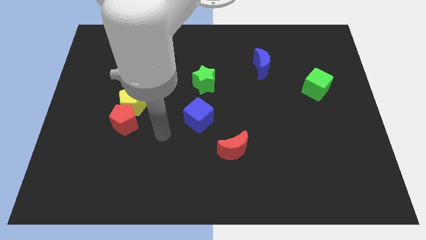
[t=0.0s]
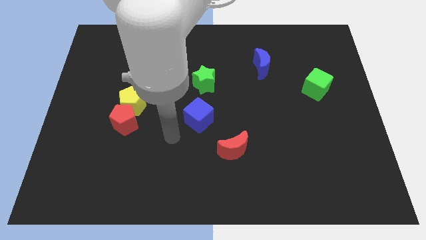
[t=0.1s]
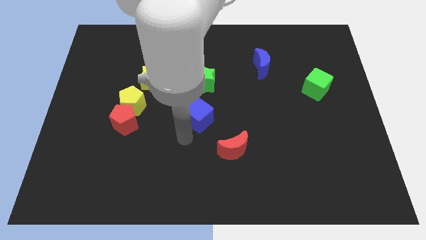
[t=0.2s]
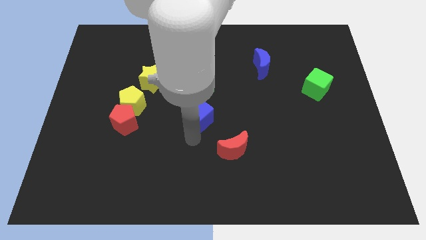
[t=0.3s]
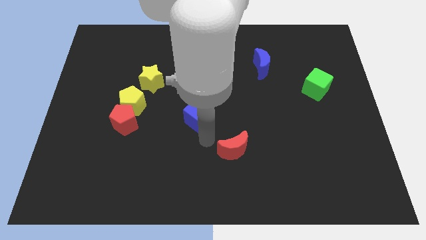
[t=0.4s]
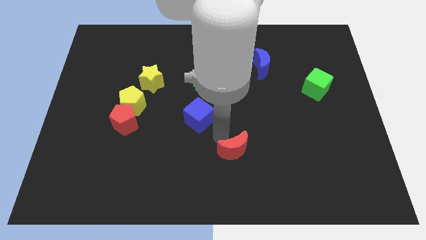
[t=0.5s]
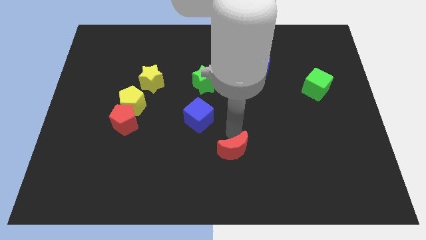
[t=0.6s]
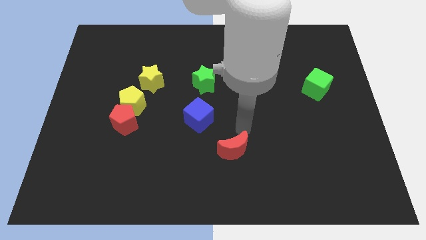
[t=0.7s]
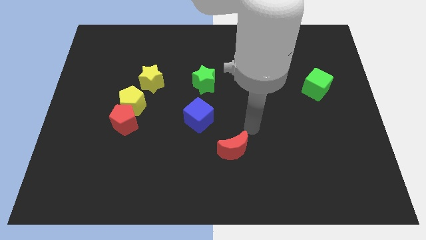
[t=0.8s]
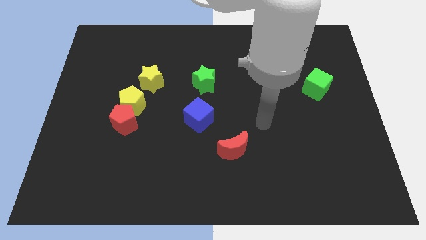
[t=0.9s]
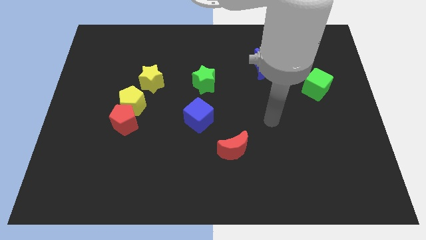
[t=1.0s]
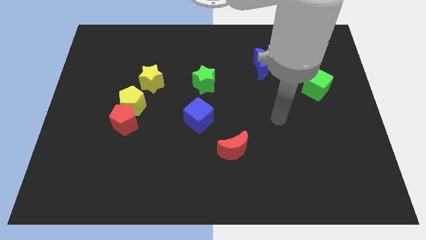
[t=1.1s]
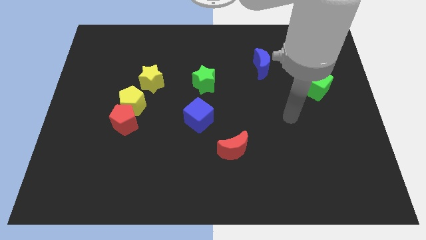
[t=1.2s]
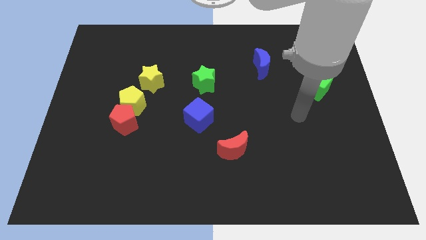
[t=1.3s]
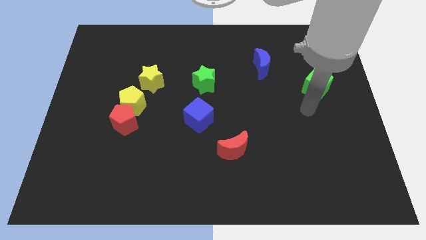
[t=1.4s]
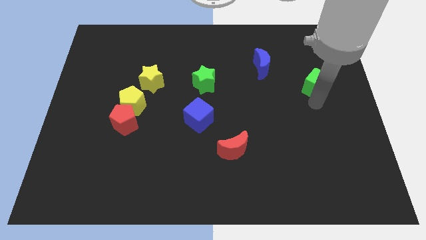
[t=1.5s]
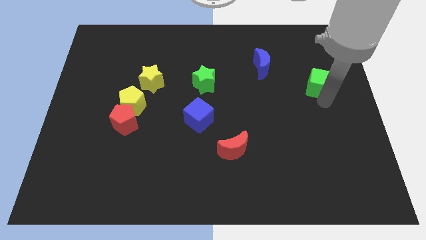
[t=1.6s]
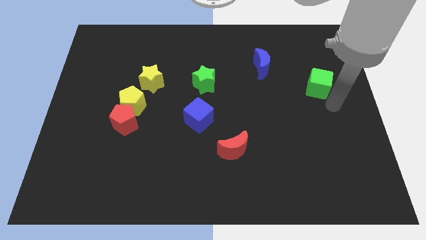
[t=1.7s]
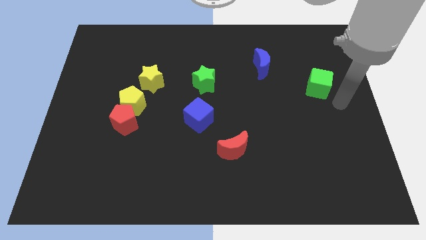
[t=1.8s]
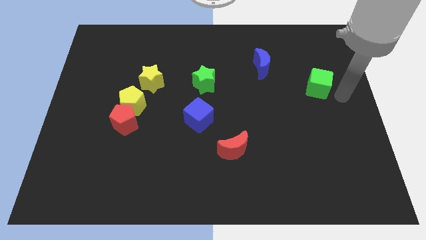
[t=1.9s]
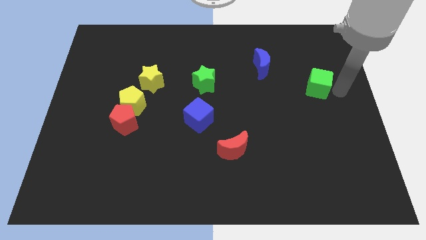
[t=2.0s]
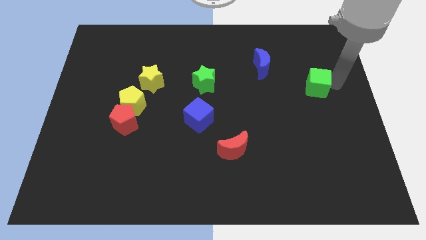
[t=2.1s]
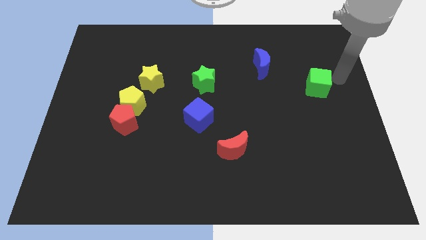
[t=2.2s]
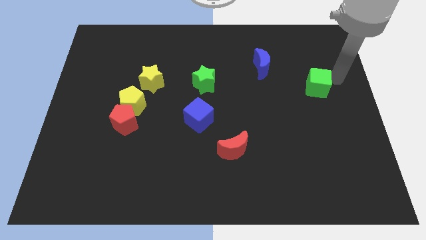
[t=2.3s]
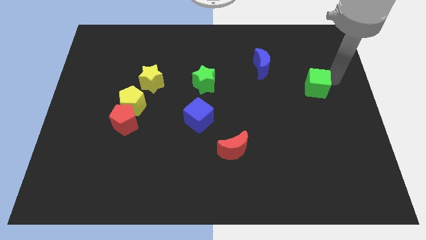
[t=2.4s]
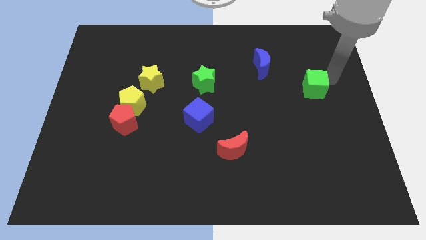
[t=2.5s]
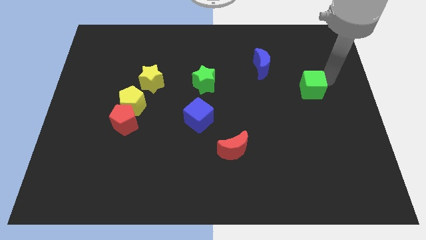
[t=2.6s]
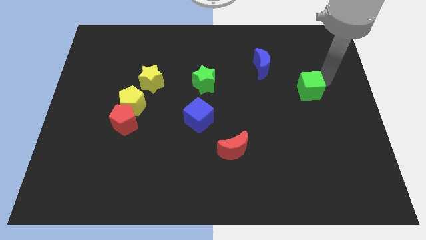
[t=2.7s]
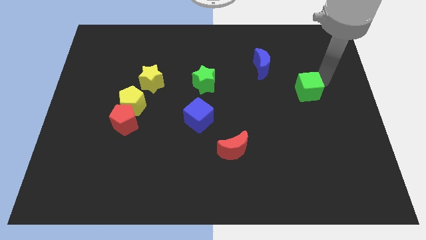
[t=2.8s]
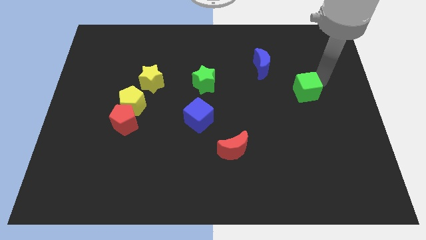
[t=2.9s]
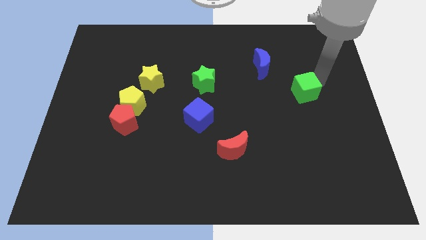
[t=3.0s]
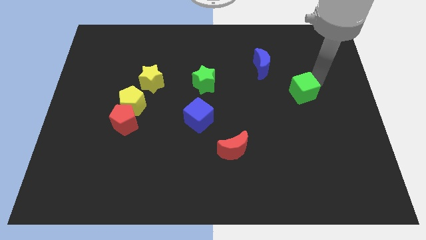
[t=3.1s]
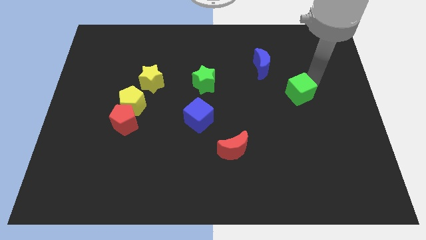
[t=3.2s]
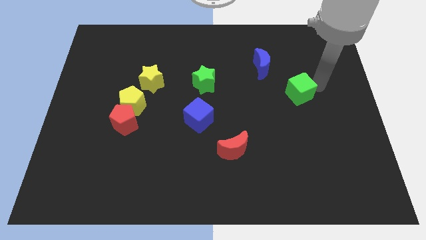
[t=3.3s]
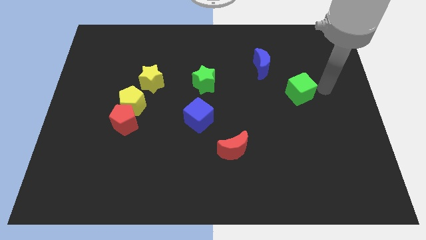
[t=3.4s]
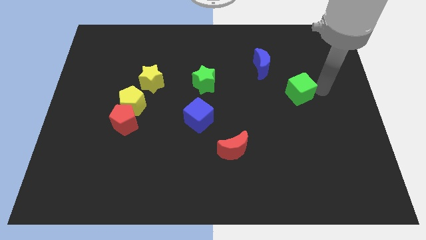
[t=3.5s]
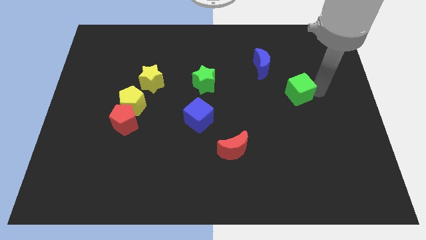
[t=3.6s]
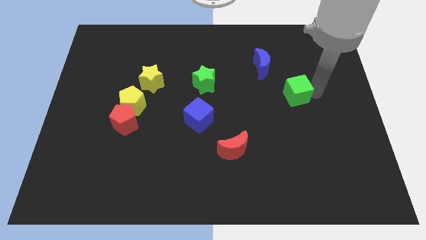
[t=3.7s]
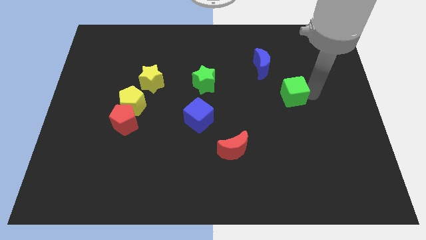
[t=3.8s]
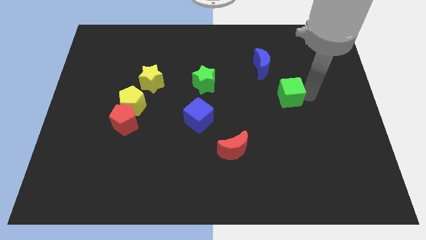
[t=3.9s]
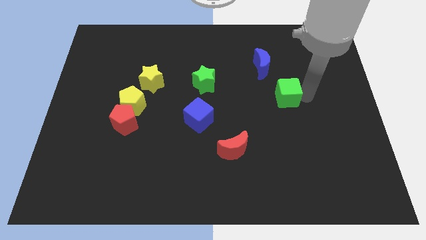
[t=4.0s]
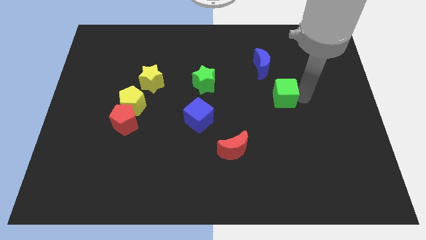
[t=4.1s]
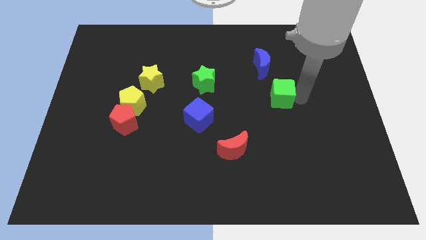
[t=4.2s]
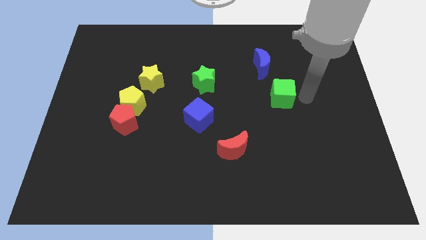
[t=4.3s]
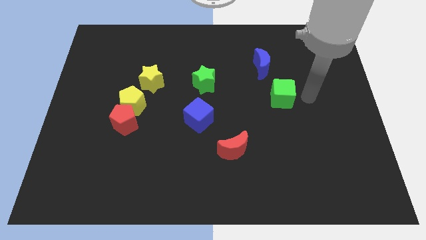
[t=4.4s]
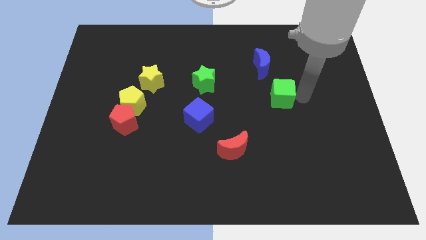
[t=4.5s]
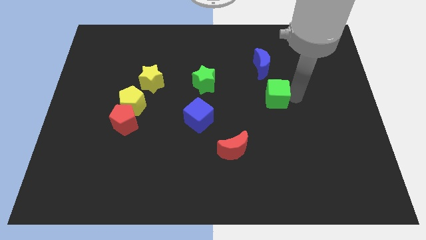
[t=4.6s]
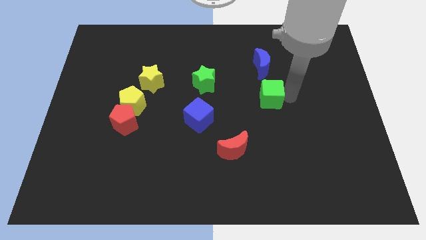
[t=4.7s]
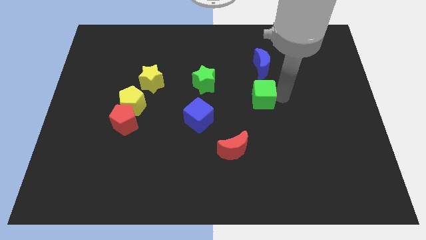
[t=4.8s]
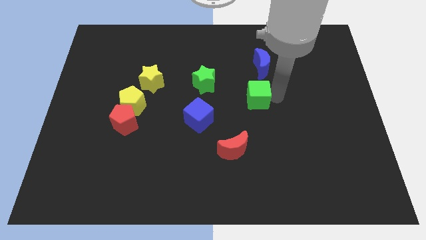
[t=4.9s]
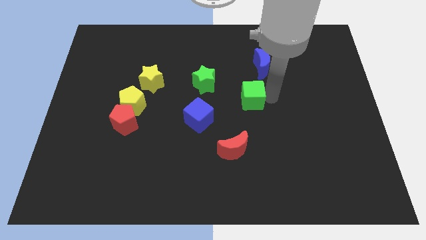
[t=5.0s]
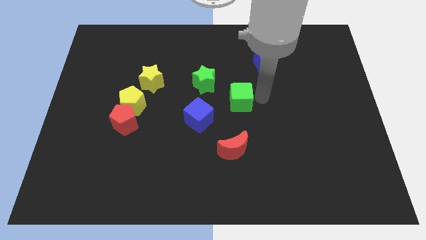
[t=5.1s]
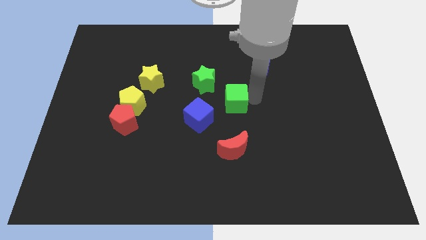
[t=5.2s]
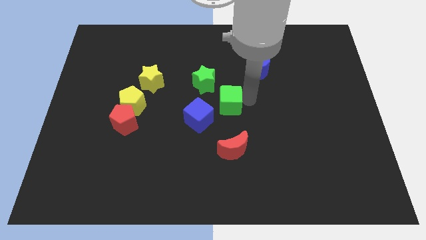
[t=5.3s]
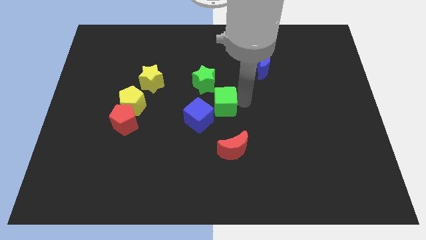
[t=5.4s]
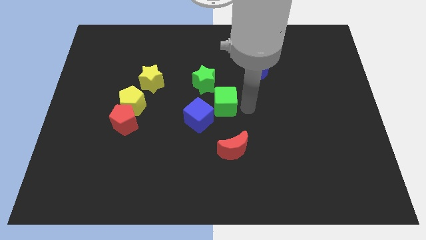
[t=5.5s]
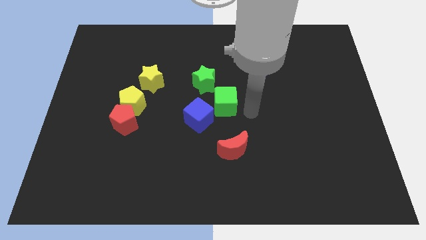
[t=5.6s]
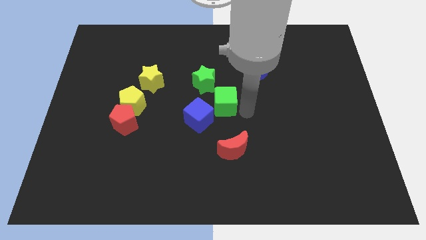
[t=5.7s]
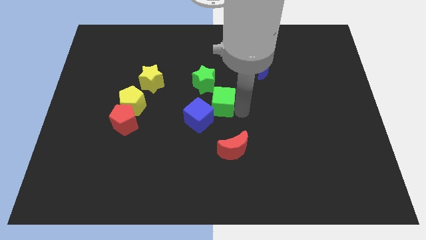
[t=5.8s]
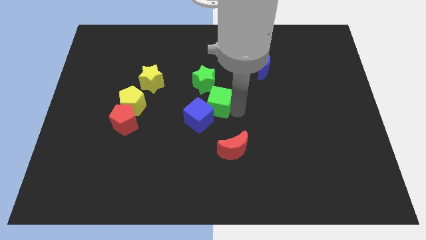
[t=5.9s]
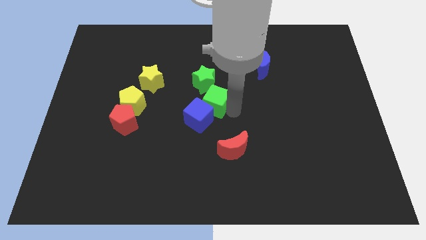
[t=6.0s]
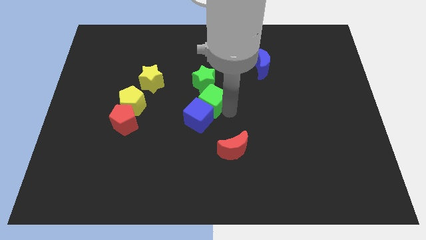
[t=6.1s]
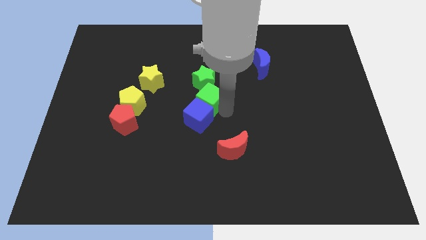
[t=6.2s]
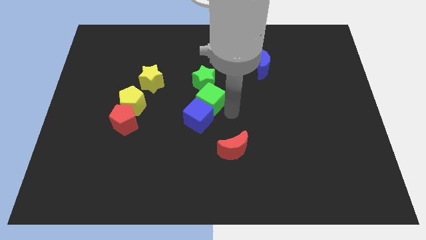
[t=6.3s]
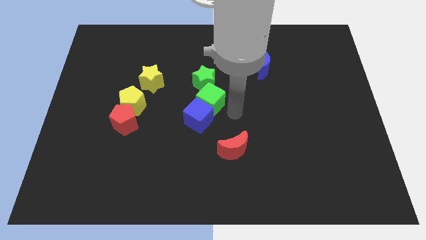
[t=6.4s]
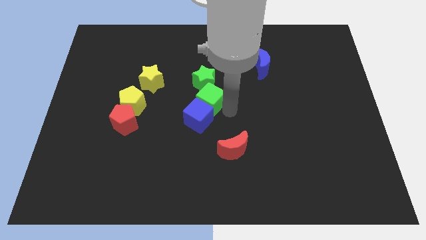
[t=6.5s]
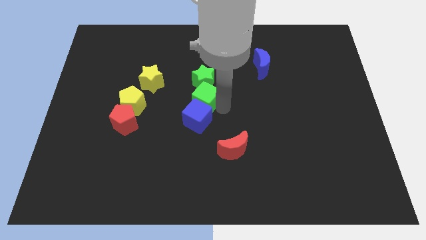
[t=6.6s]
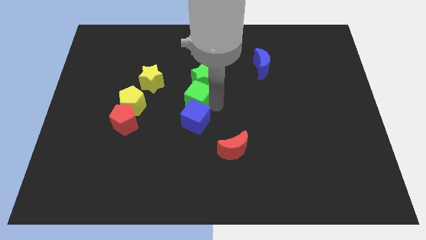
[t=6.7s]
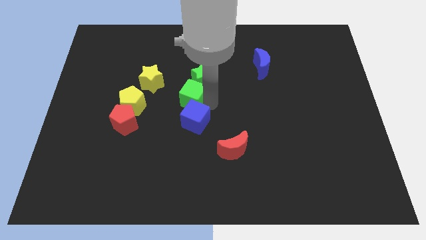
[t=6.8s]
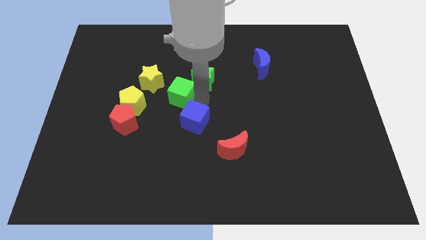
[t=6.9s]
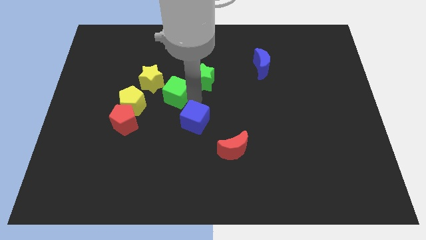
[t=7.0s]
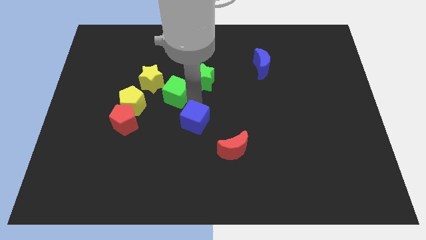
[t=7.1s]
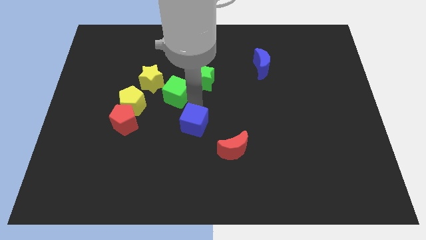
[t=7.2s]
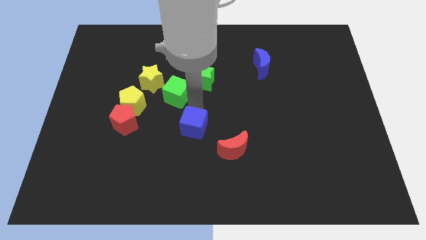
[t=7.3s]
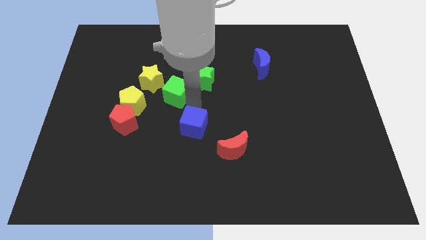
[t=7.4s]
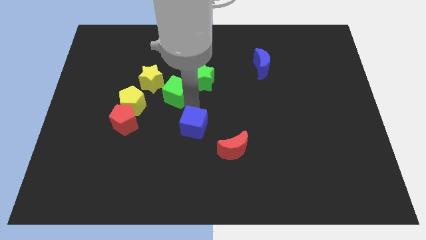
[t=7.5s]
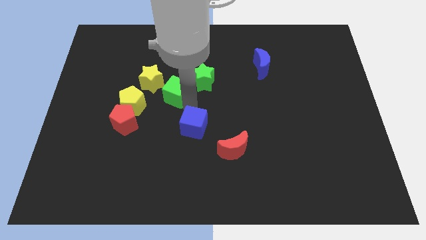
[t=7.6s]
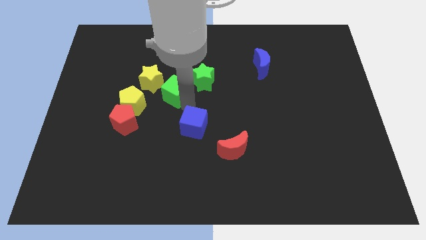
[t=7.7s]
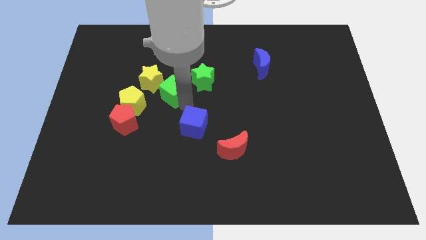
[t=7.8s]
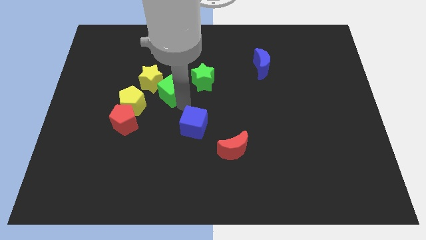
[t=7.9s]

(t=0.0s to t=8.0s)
move the green cube next to the yellow star

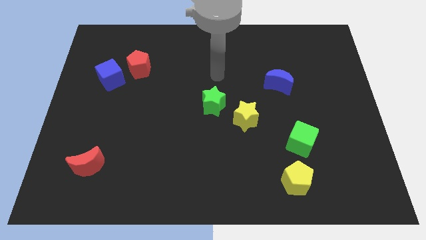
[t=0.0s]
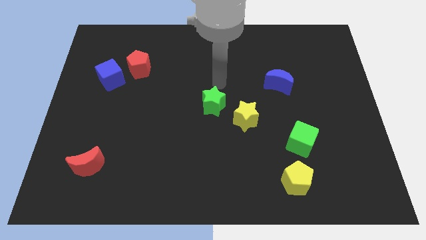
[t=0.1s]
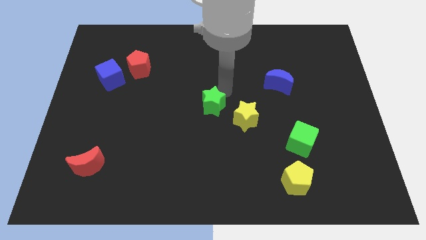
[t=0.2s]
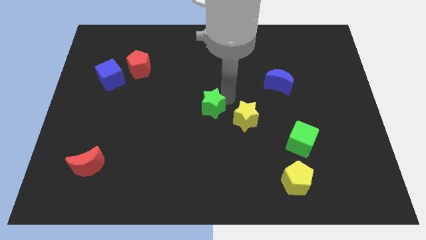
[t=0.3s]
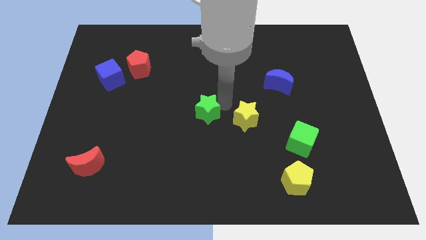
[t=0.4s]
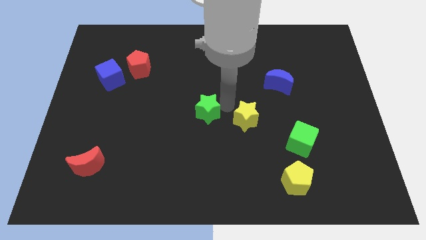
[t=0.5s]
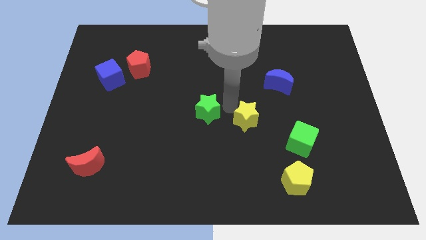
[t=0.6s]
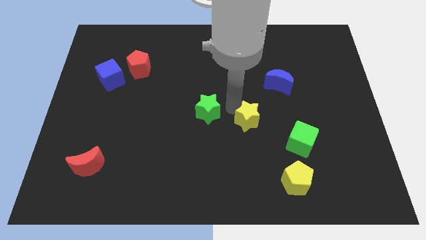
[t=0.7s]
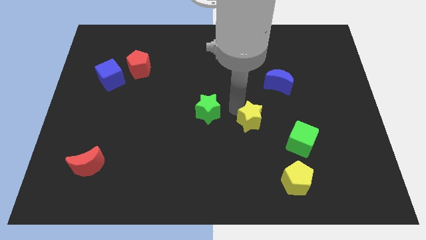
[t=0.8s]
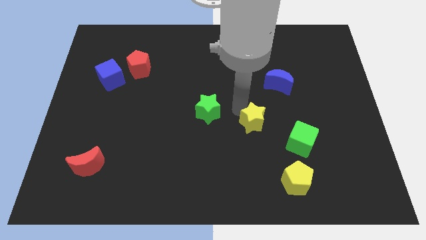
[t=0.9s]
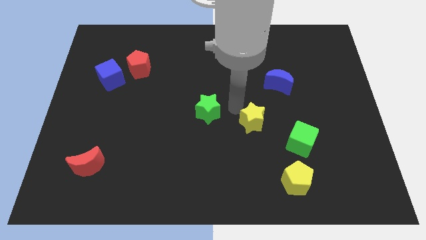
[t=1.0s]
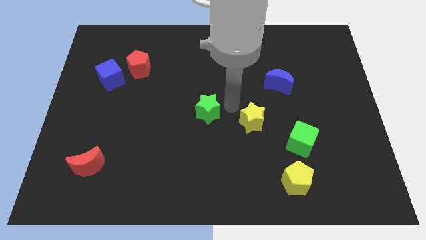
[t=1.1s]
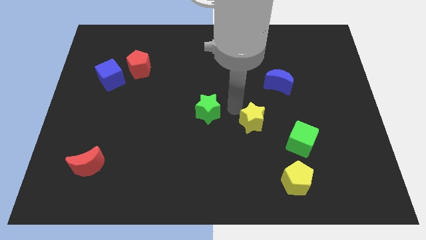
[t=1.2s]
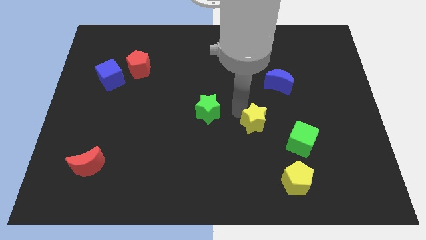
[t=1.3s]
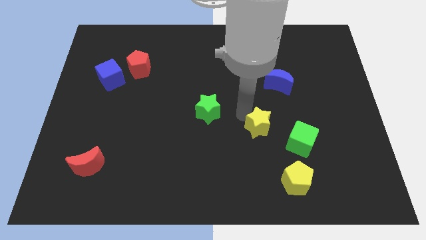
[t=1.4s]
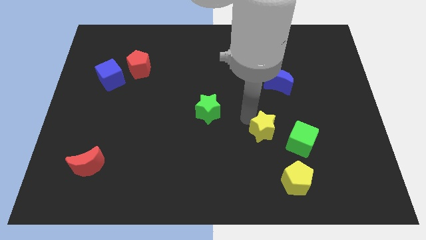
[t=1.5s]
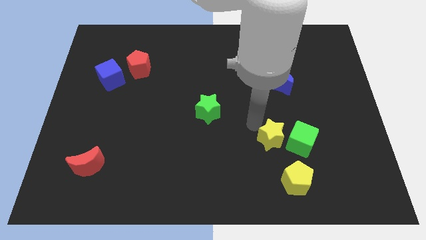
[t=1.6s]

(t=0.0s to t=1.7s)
push the yellow star towards the green cube
